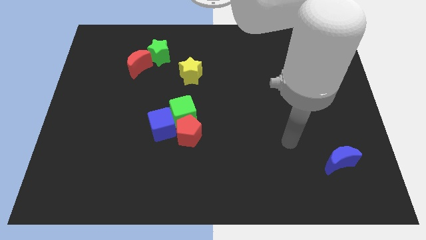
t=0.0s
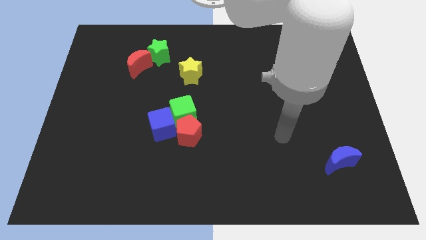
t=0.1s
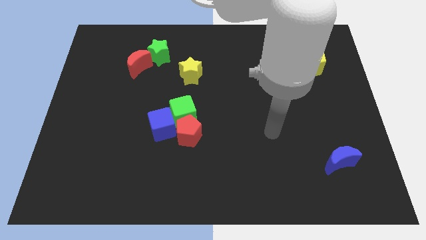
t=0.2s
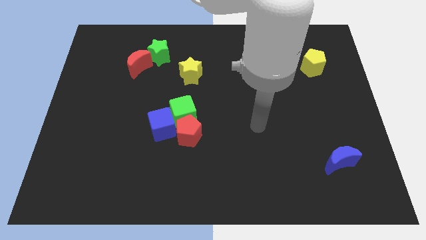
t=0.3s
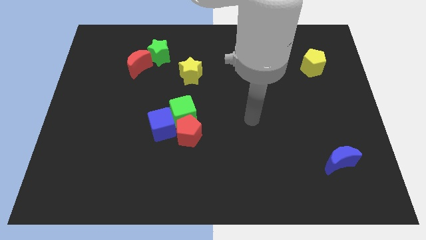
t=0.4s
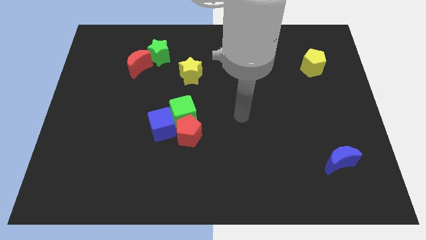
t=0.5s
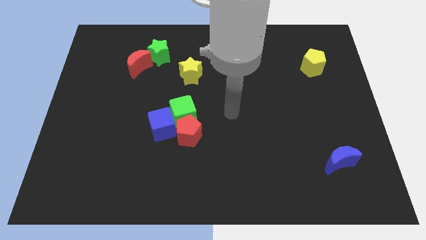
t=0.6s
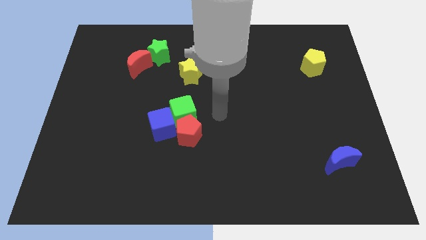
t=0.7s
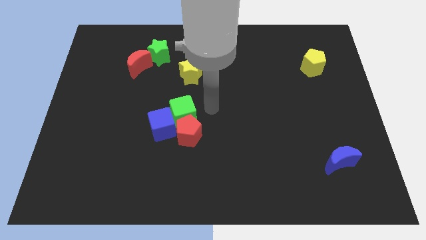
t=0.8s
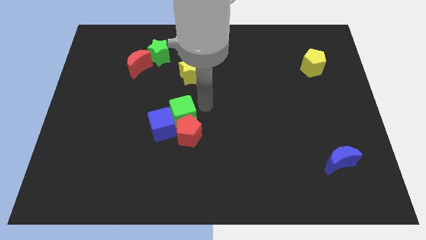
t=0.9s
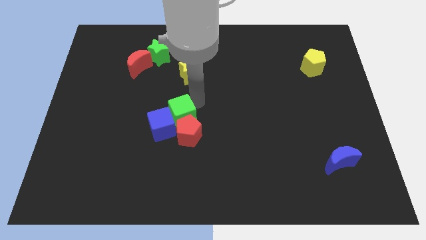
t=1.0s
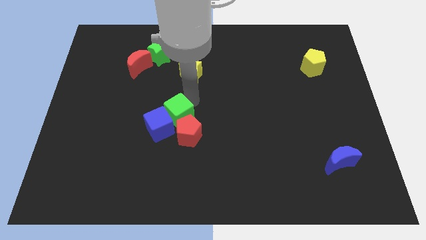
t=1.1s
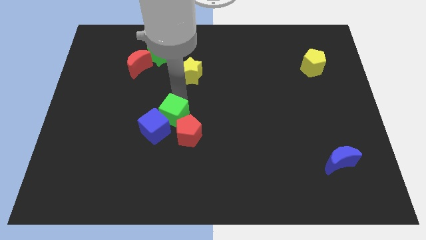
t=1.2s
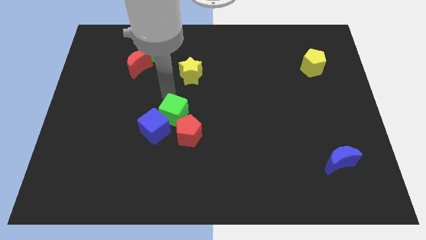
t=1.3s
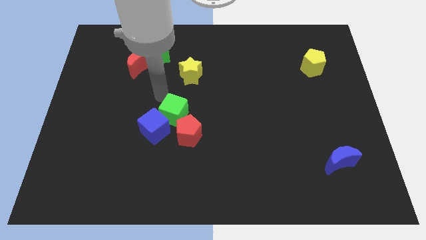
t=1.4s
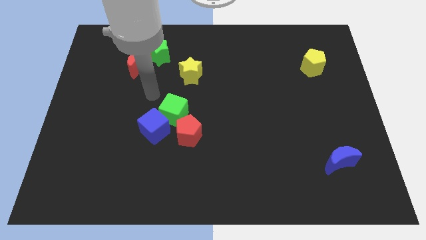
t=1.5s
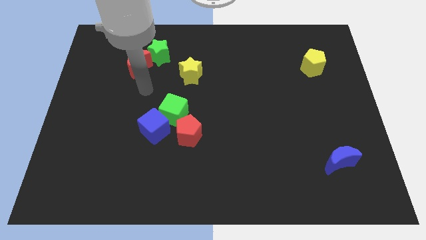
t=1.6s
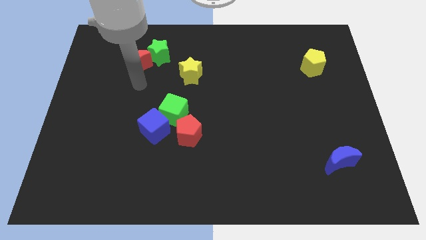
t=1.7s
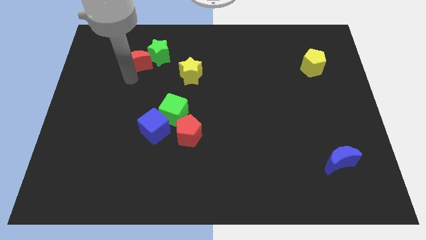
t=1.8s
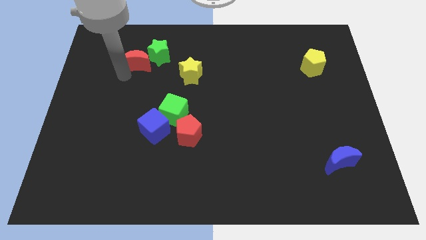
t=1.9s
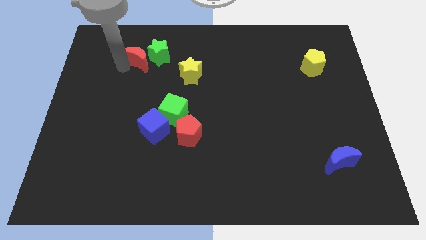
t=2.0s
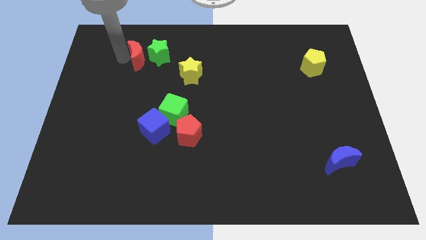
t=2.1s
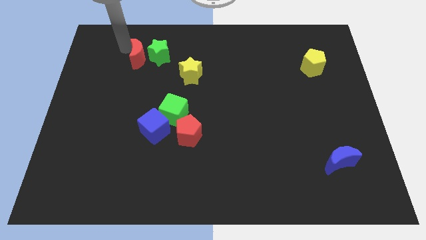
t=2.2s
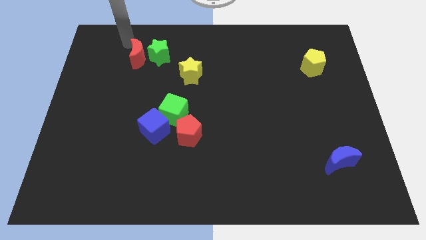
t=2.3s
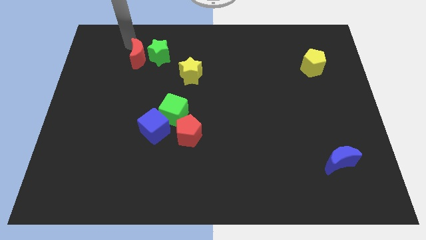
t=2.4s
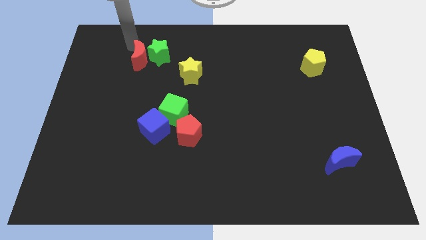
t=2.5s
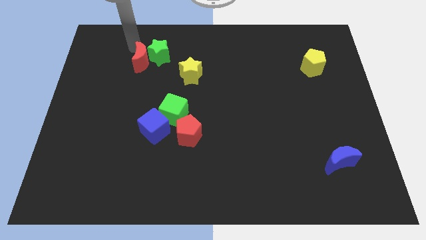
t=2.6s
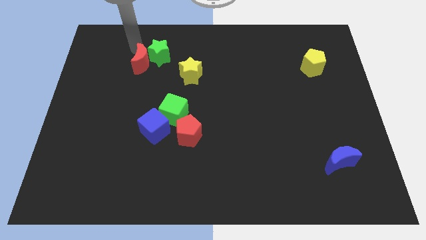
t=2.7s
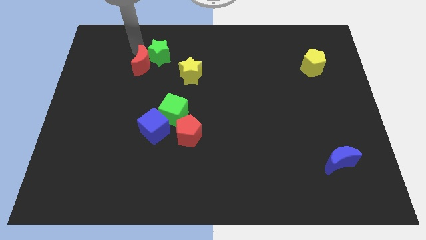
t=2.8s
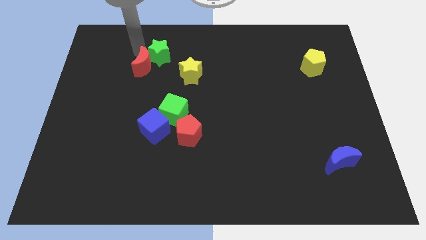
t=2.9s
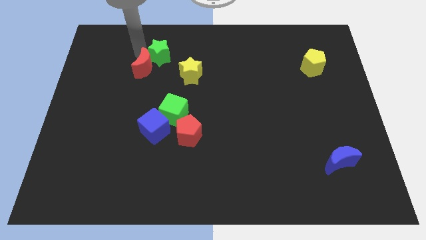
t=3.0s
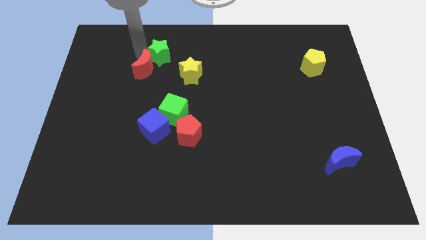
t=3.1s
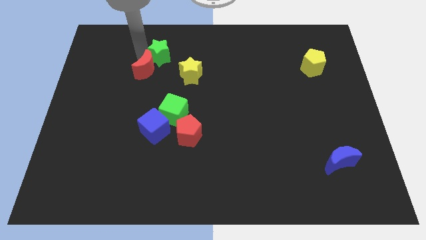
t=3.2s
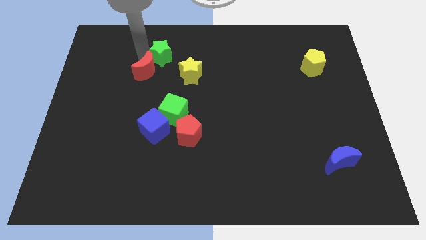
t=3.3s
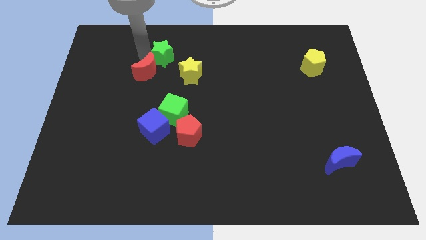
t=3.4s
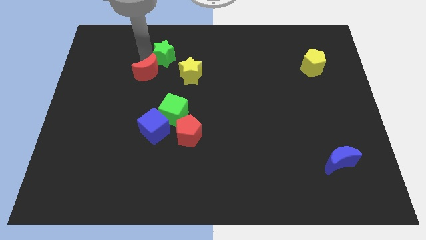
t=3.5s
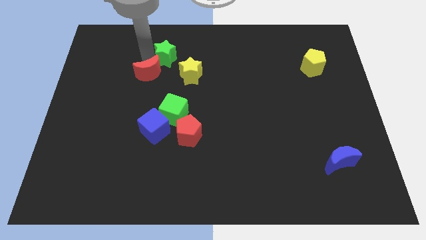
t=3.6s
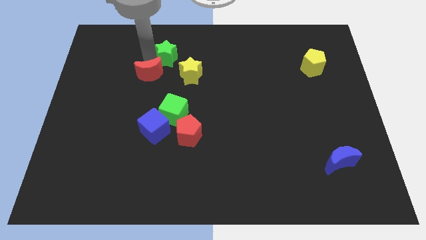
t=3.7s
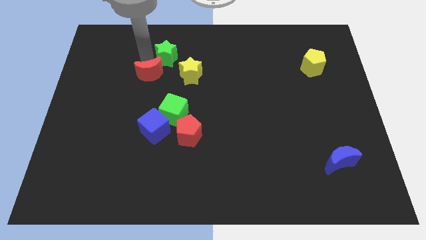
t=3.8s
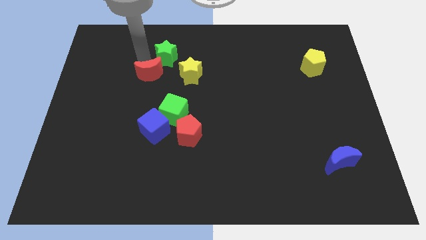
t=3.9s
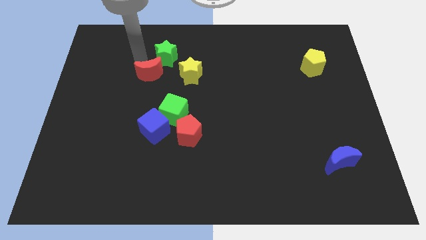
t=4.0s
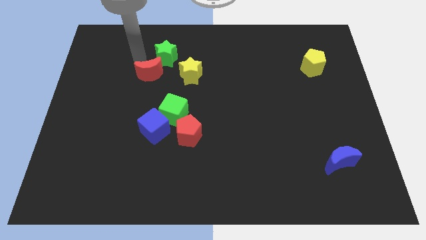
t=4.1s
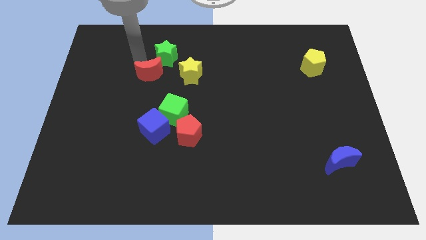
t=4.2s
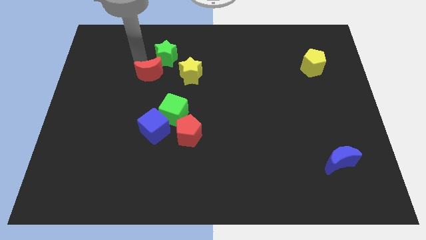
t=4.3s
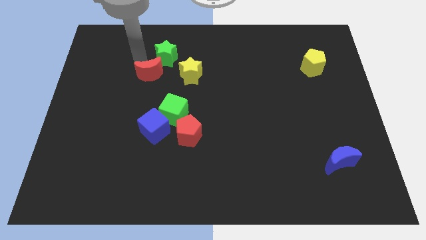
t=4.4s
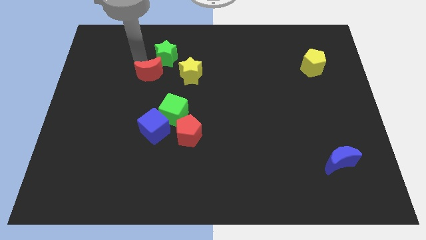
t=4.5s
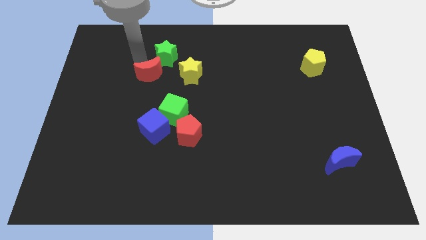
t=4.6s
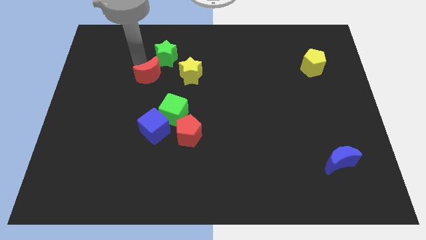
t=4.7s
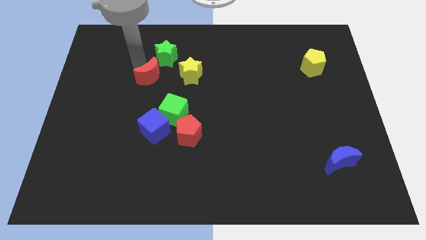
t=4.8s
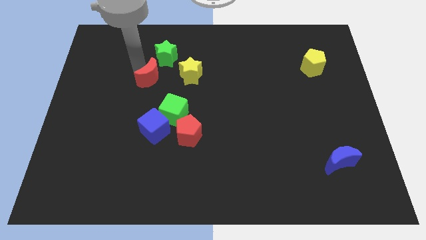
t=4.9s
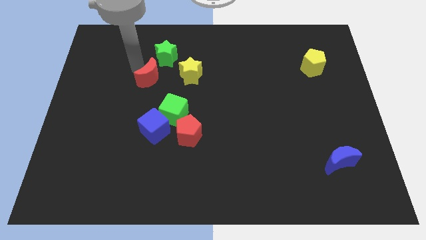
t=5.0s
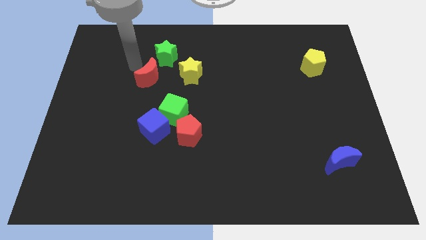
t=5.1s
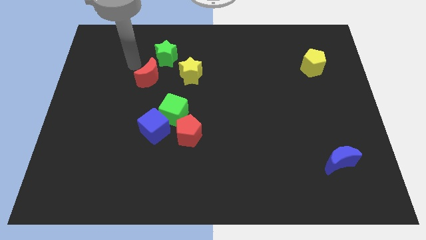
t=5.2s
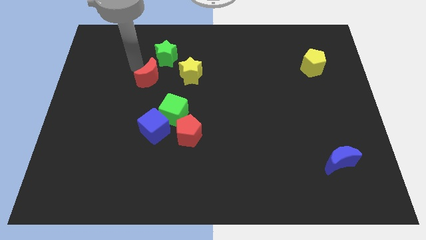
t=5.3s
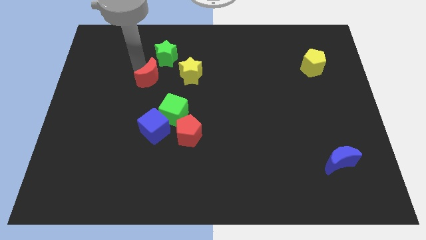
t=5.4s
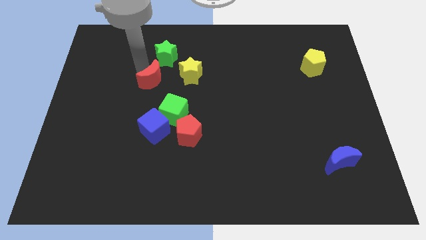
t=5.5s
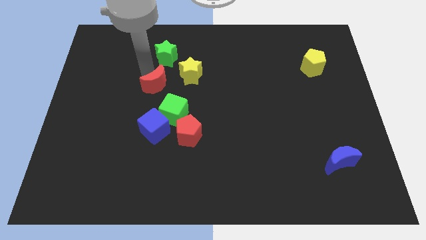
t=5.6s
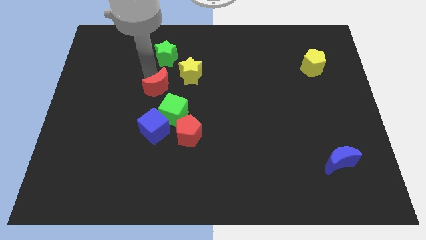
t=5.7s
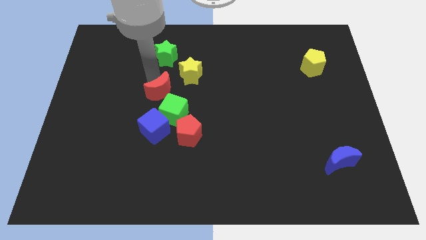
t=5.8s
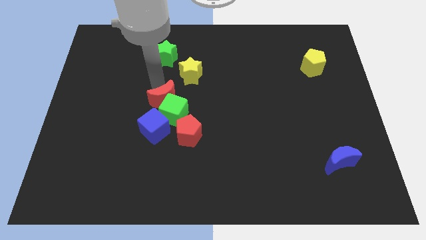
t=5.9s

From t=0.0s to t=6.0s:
slide the red moon close to the green cube
